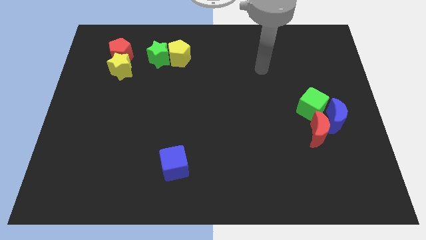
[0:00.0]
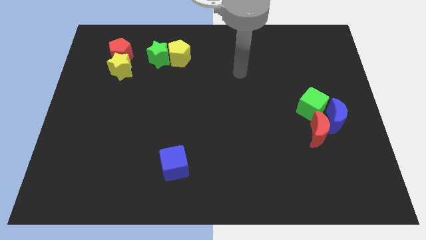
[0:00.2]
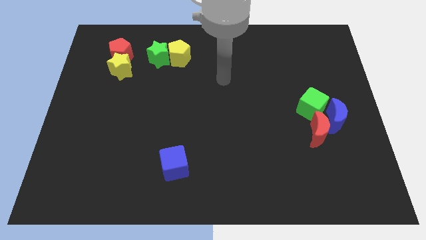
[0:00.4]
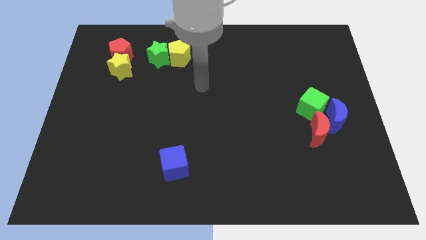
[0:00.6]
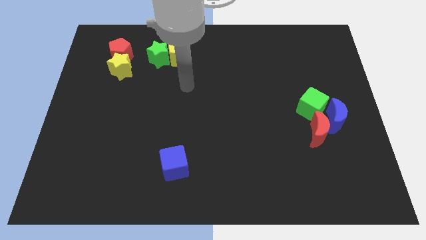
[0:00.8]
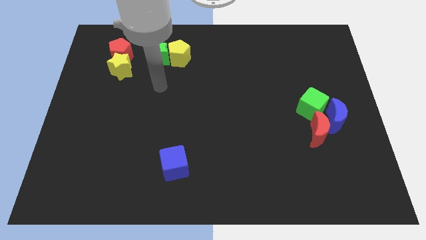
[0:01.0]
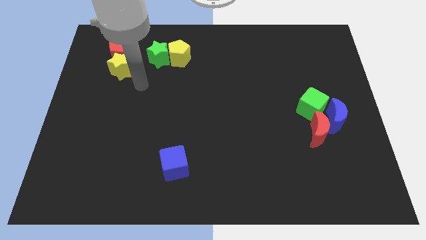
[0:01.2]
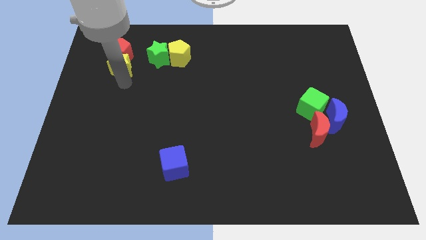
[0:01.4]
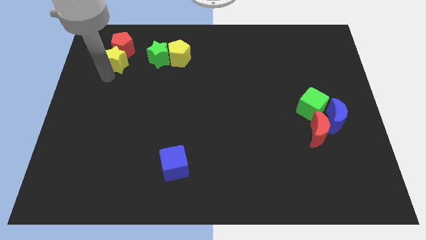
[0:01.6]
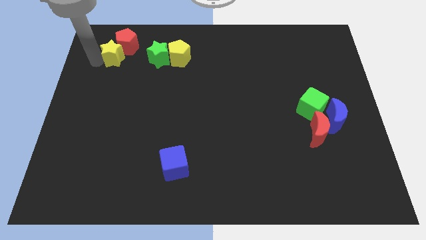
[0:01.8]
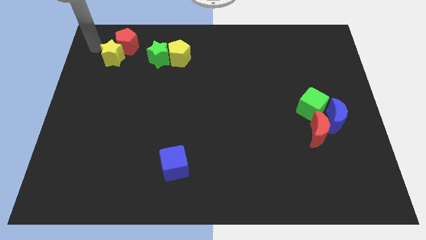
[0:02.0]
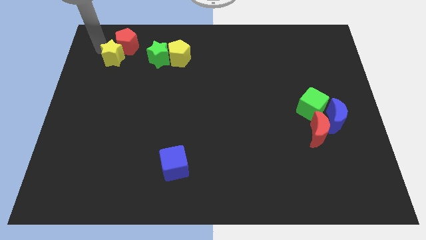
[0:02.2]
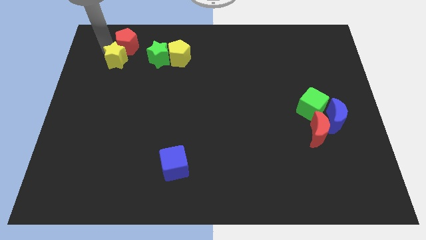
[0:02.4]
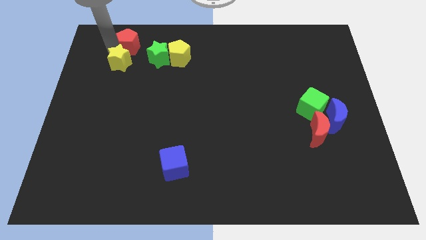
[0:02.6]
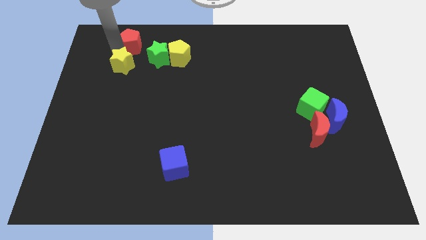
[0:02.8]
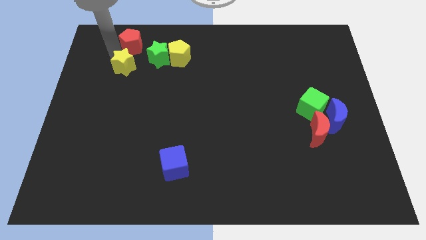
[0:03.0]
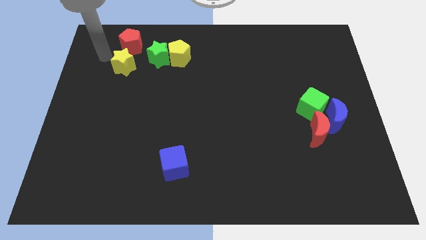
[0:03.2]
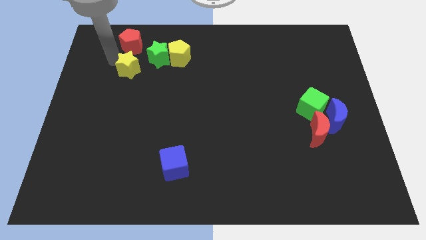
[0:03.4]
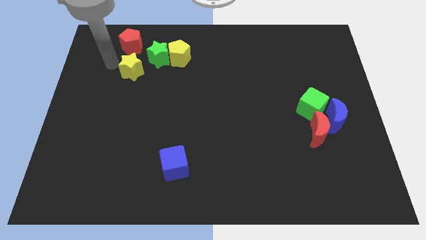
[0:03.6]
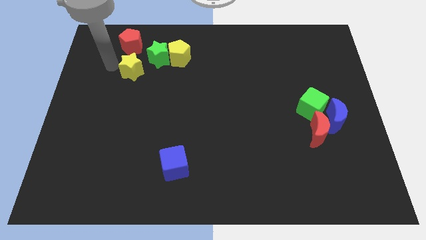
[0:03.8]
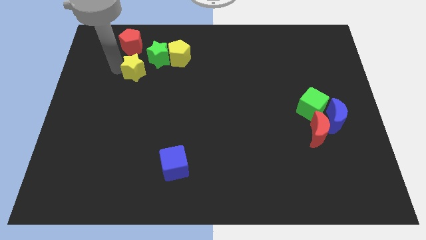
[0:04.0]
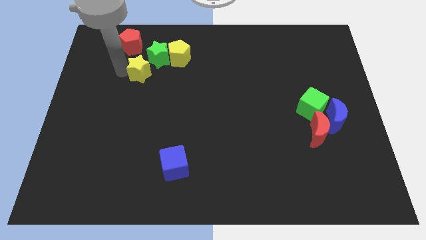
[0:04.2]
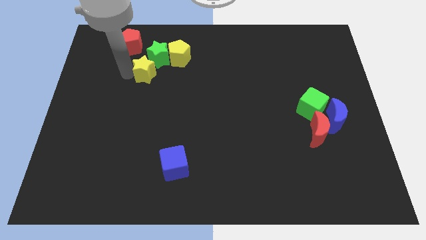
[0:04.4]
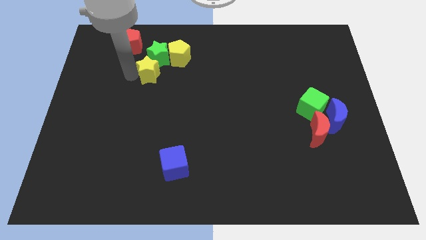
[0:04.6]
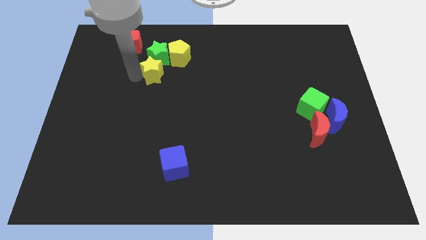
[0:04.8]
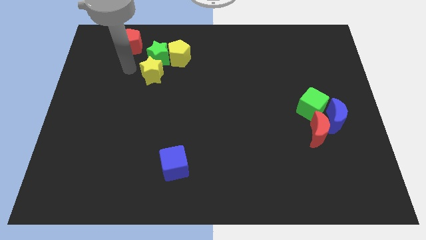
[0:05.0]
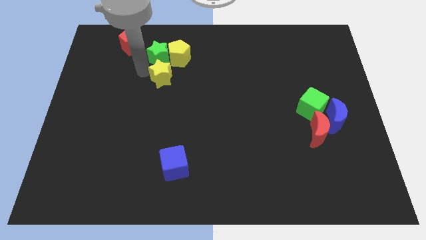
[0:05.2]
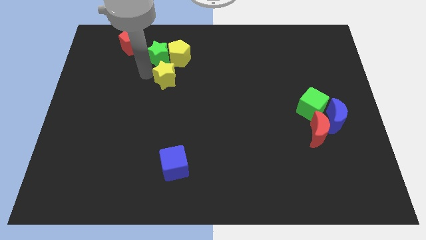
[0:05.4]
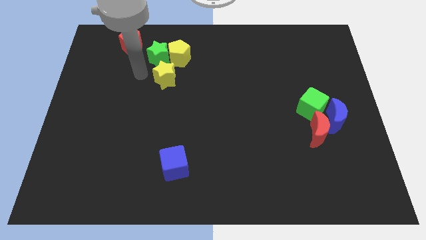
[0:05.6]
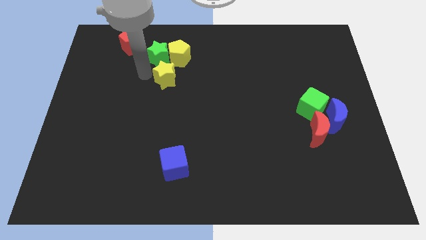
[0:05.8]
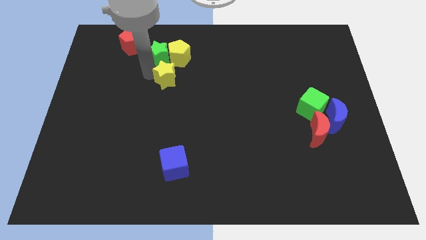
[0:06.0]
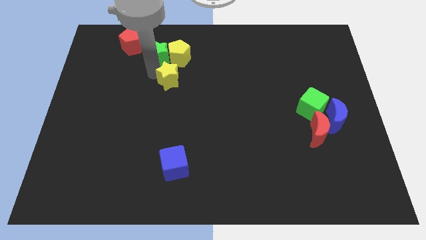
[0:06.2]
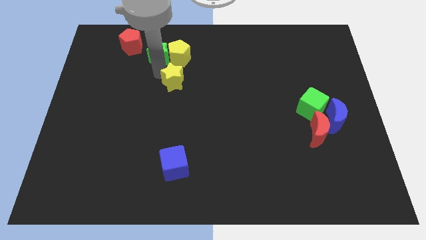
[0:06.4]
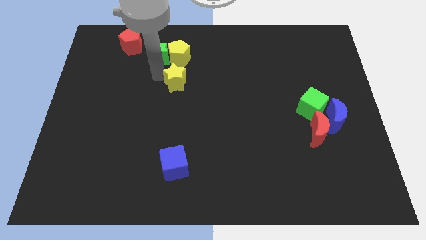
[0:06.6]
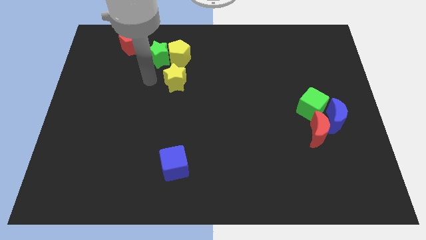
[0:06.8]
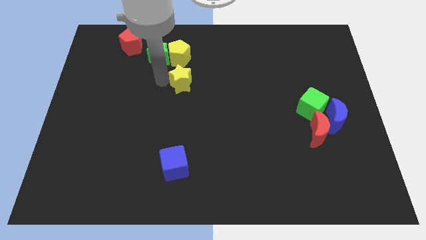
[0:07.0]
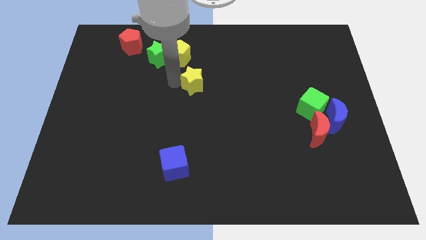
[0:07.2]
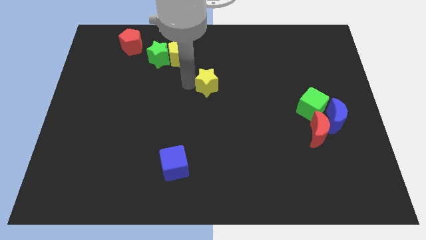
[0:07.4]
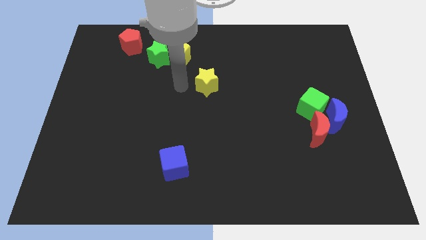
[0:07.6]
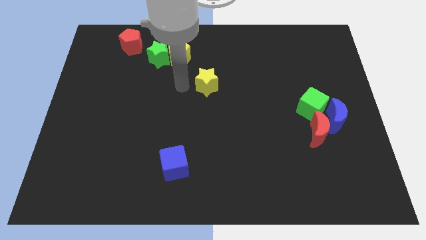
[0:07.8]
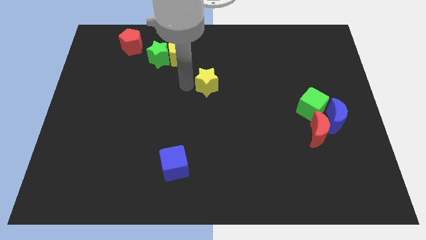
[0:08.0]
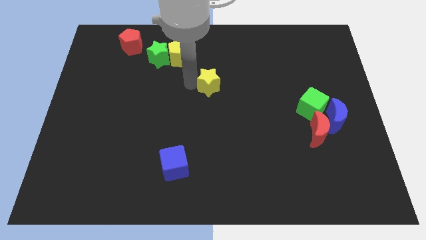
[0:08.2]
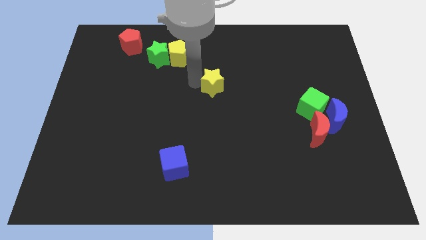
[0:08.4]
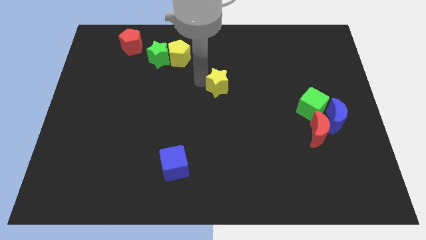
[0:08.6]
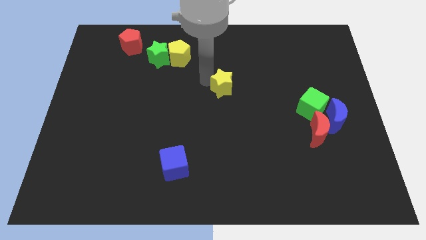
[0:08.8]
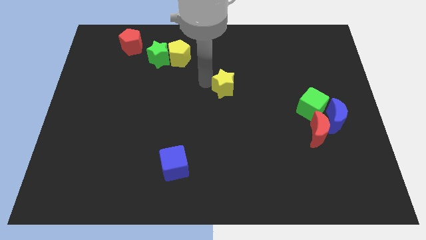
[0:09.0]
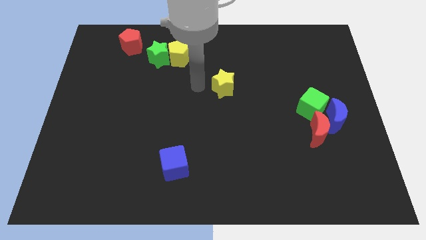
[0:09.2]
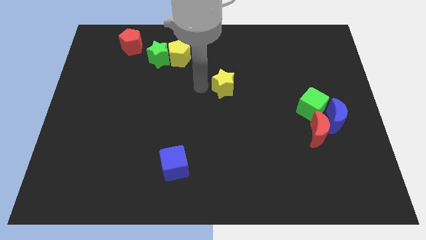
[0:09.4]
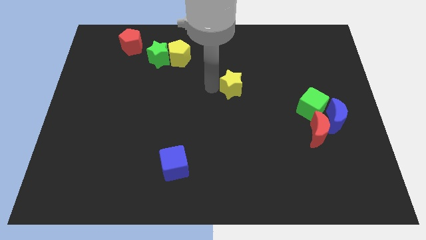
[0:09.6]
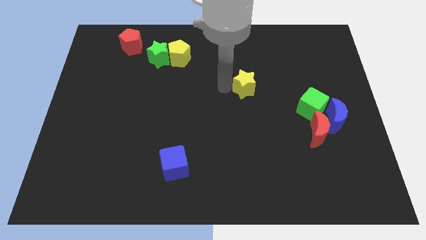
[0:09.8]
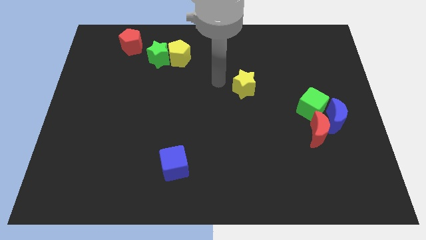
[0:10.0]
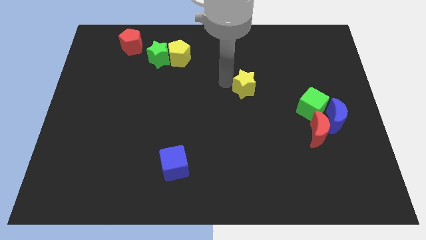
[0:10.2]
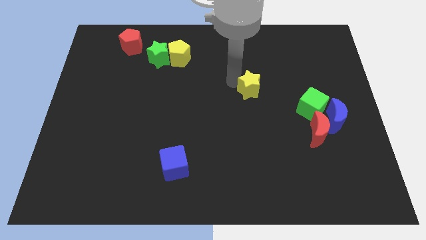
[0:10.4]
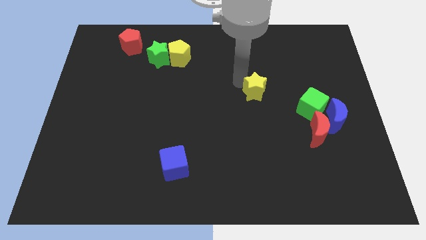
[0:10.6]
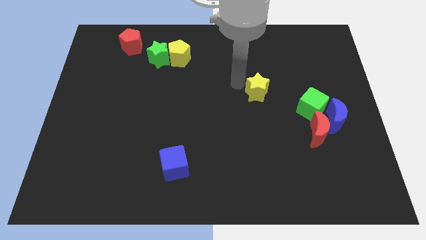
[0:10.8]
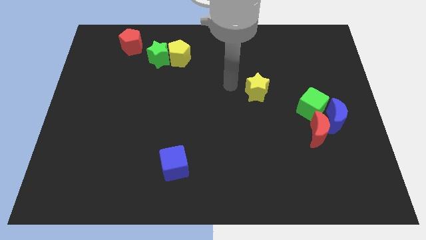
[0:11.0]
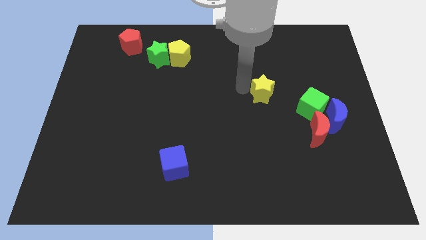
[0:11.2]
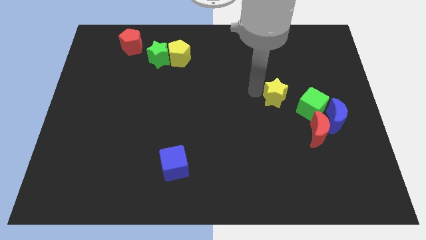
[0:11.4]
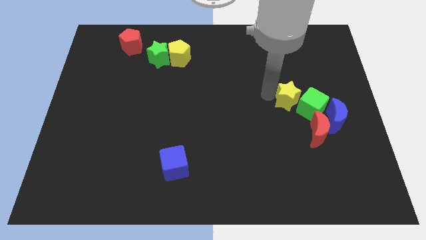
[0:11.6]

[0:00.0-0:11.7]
slide the yellow star close to the green cube

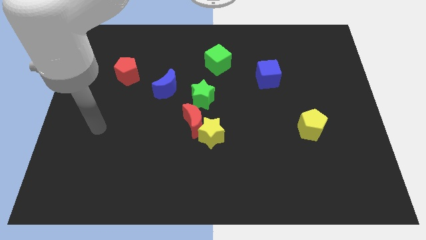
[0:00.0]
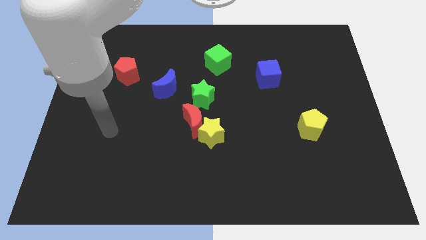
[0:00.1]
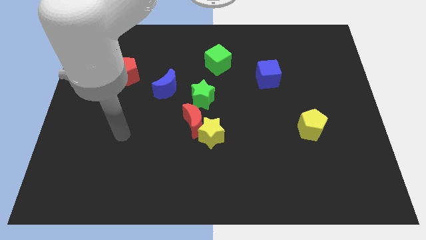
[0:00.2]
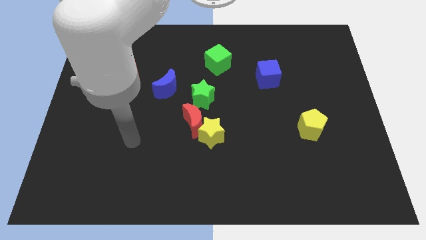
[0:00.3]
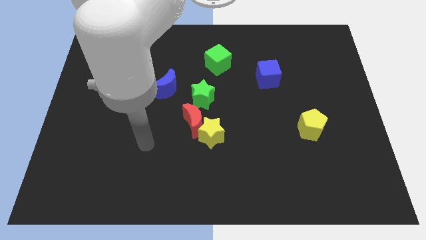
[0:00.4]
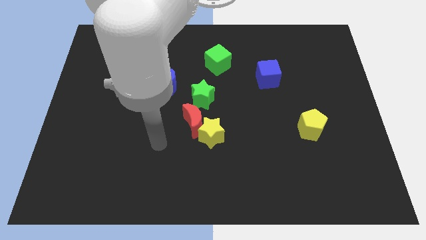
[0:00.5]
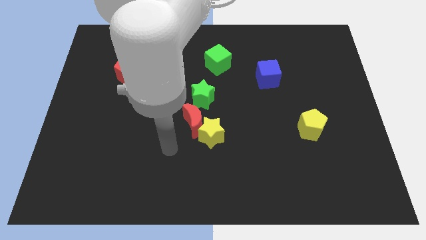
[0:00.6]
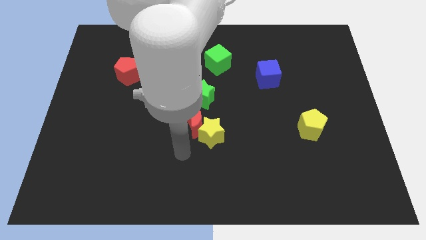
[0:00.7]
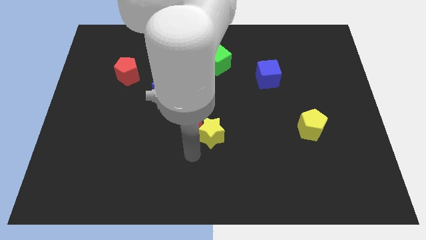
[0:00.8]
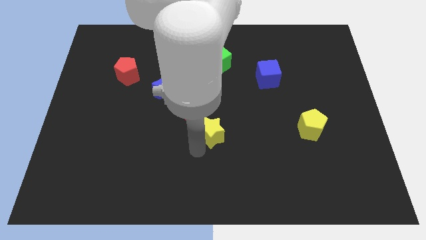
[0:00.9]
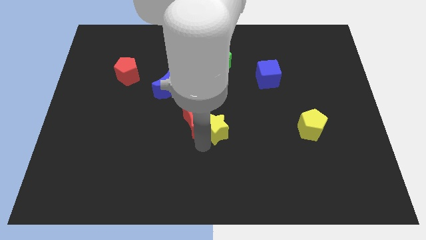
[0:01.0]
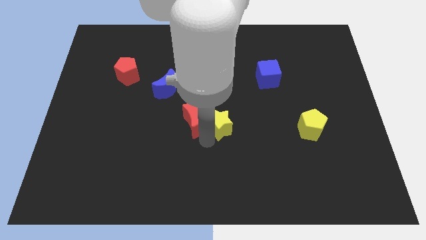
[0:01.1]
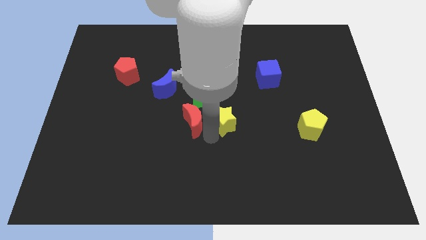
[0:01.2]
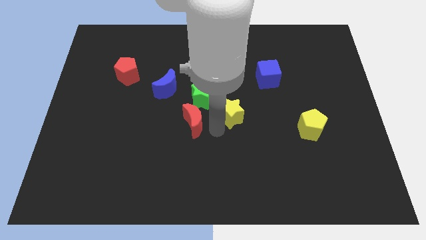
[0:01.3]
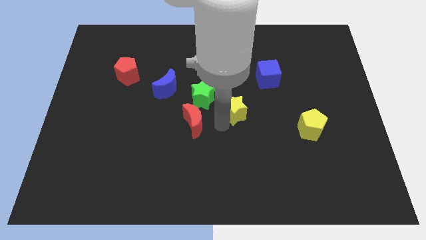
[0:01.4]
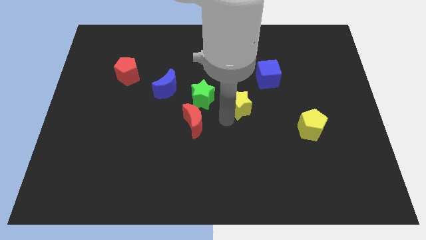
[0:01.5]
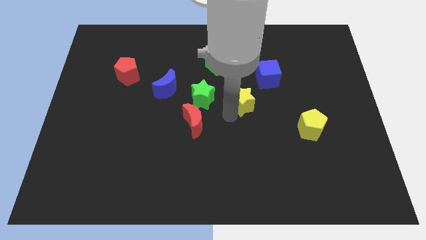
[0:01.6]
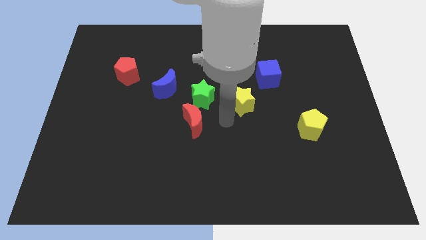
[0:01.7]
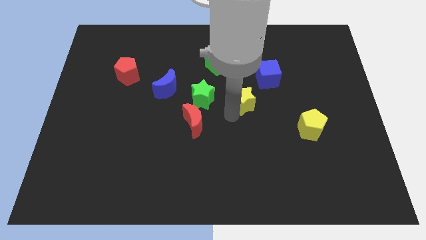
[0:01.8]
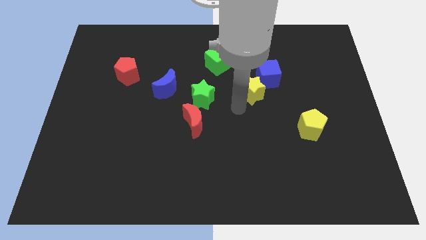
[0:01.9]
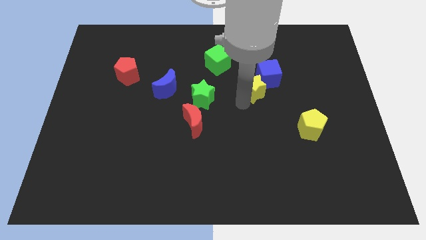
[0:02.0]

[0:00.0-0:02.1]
put the yellow star next to the blue cube
